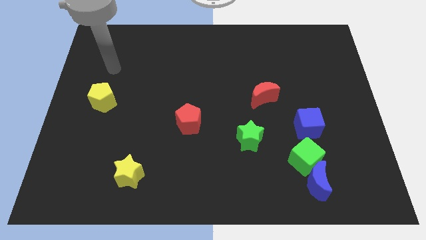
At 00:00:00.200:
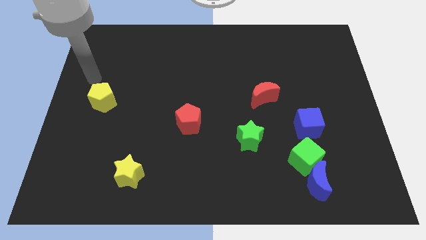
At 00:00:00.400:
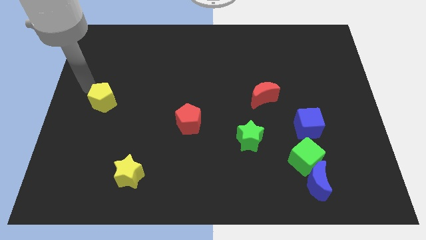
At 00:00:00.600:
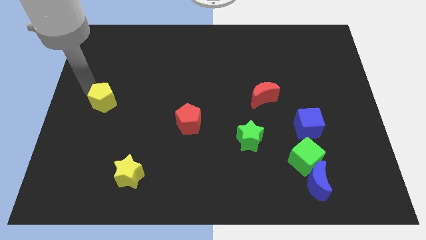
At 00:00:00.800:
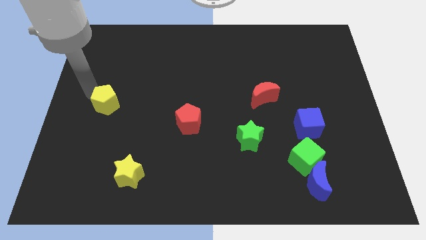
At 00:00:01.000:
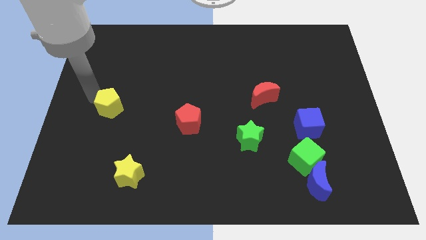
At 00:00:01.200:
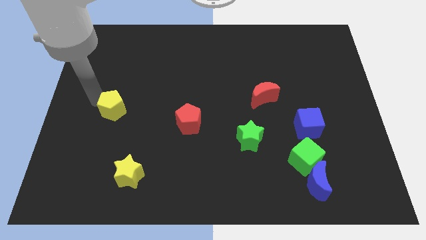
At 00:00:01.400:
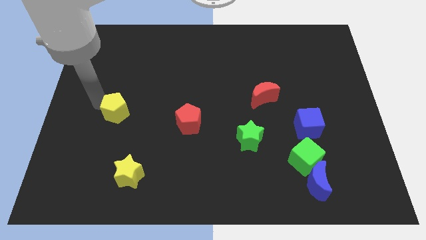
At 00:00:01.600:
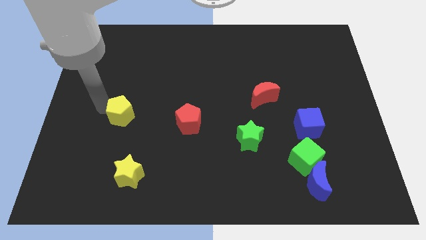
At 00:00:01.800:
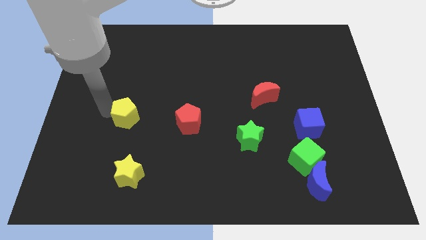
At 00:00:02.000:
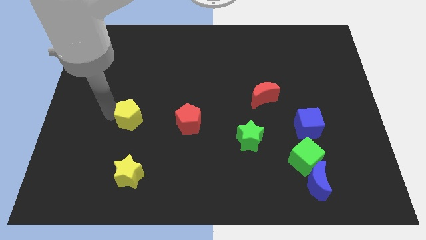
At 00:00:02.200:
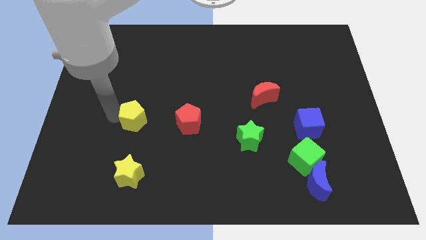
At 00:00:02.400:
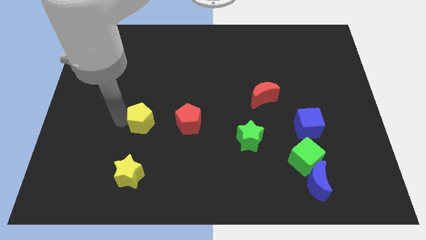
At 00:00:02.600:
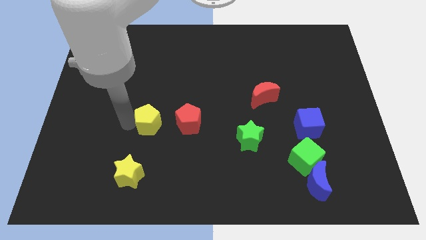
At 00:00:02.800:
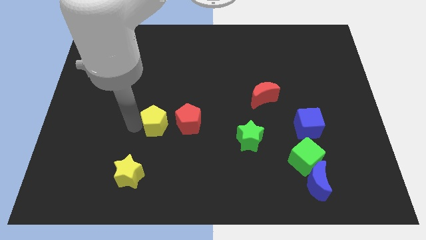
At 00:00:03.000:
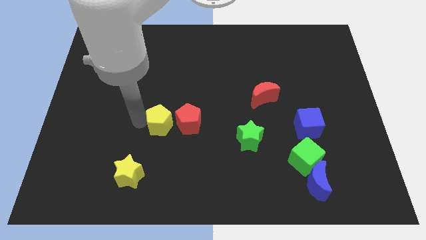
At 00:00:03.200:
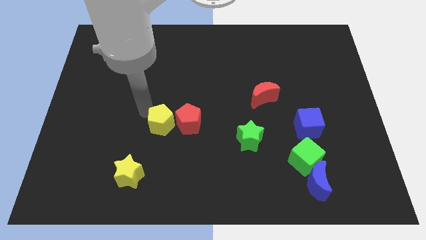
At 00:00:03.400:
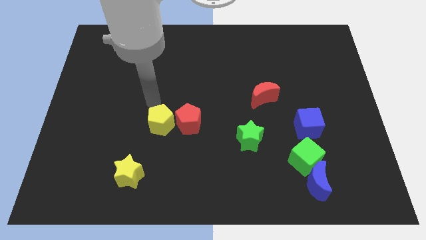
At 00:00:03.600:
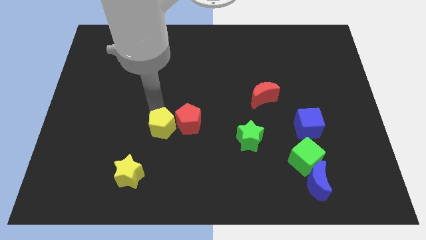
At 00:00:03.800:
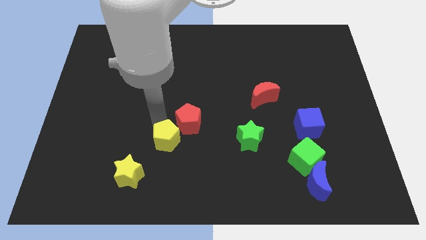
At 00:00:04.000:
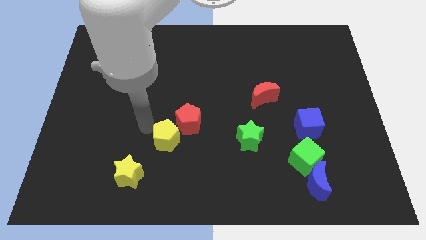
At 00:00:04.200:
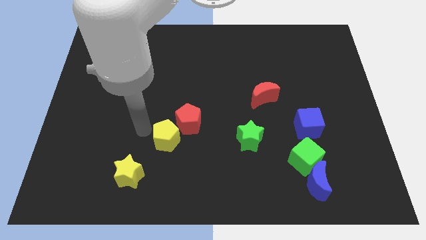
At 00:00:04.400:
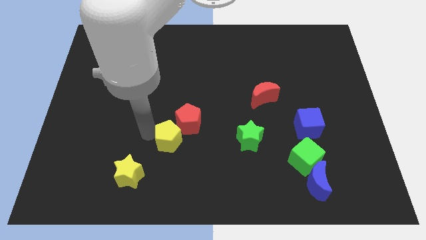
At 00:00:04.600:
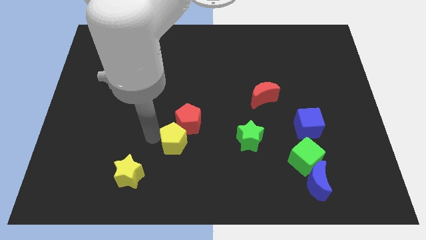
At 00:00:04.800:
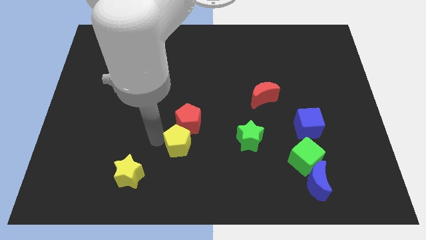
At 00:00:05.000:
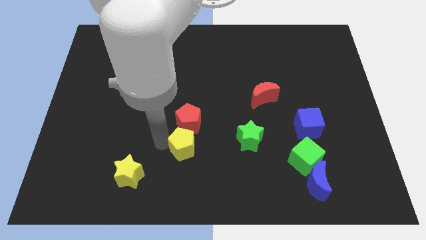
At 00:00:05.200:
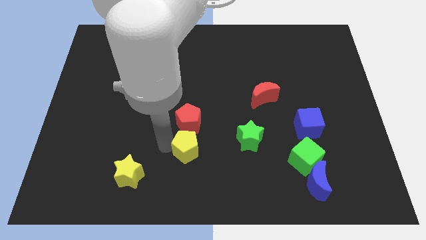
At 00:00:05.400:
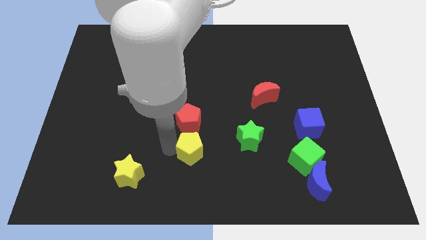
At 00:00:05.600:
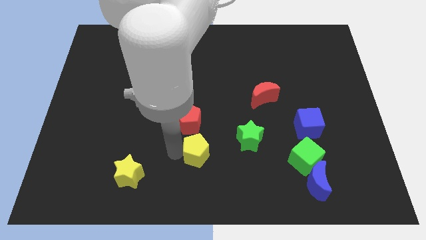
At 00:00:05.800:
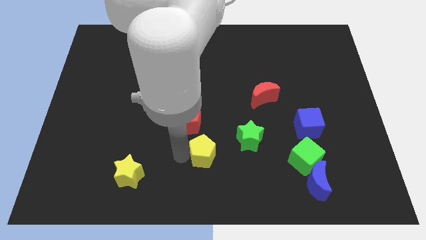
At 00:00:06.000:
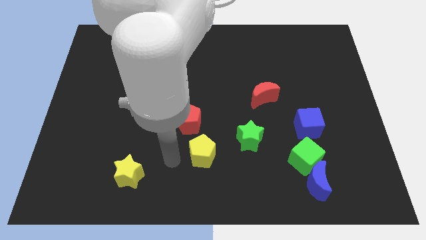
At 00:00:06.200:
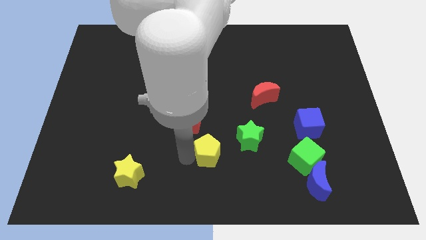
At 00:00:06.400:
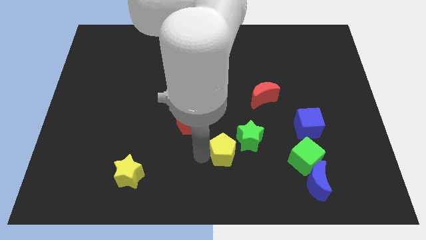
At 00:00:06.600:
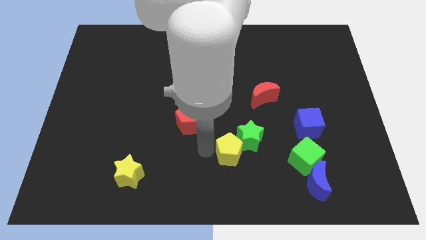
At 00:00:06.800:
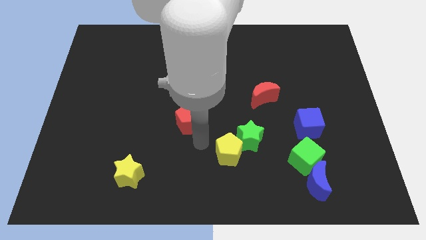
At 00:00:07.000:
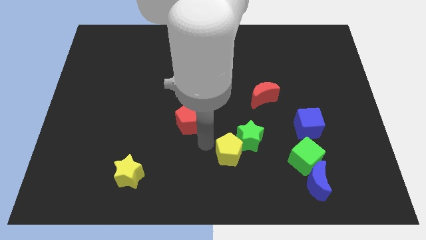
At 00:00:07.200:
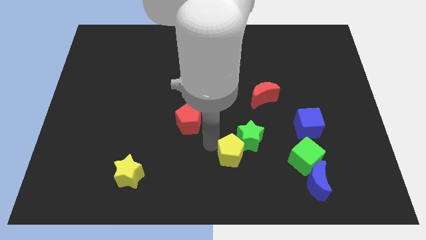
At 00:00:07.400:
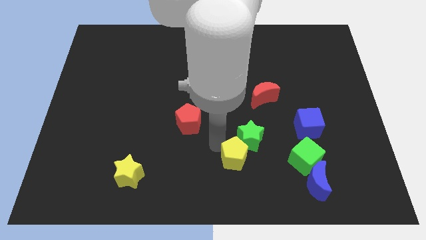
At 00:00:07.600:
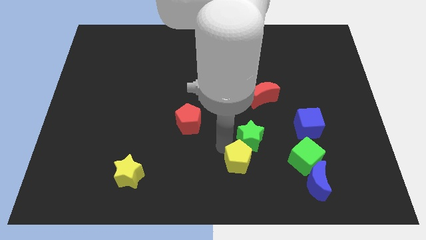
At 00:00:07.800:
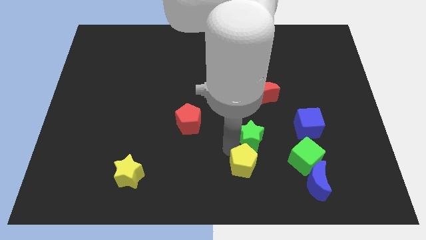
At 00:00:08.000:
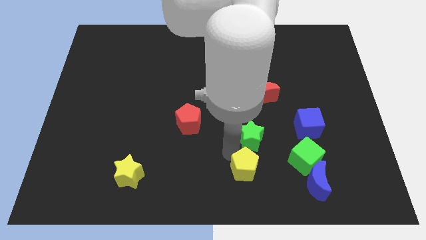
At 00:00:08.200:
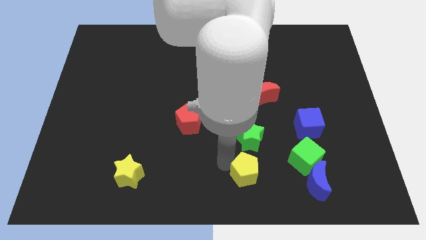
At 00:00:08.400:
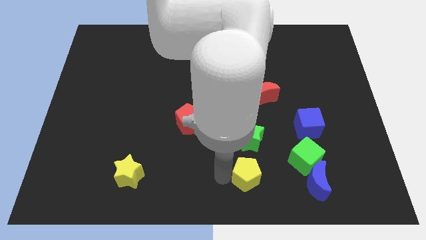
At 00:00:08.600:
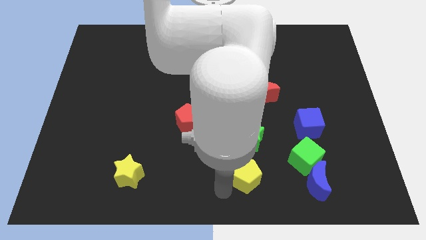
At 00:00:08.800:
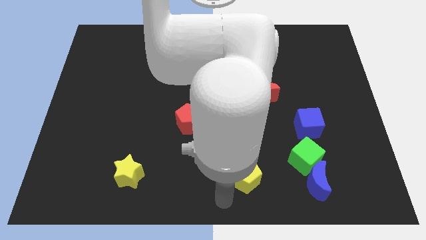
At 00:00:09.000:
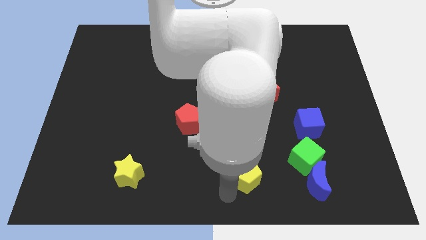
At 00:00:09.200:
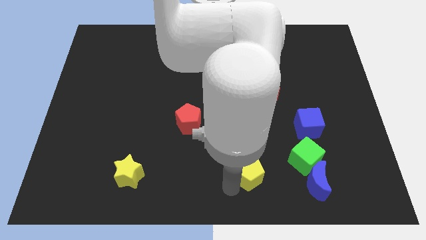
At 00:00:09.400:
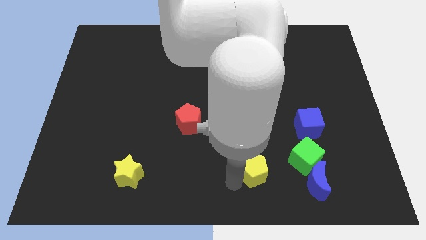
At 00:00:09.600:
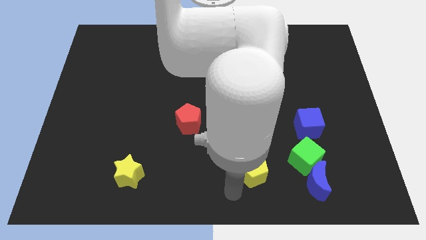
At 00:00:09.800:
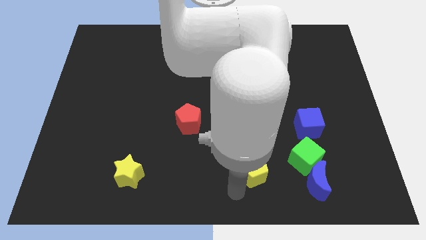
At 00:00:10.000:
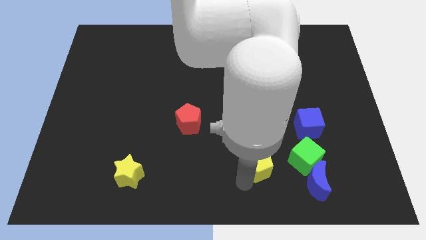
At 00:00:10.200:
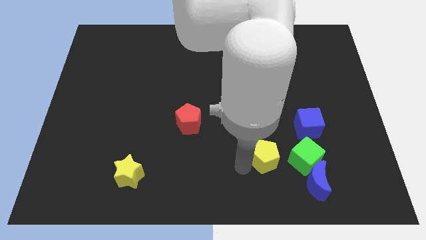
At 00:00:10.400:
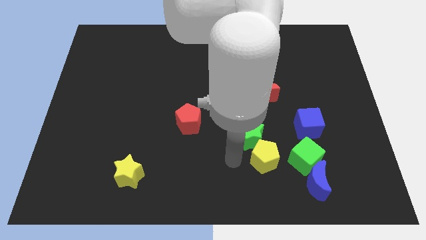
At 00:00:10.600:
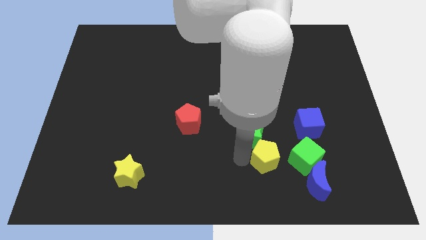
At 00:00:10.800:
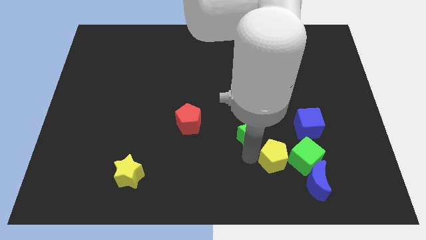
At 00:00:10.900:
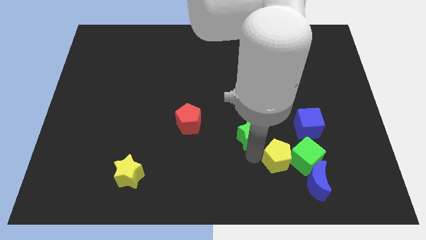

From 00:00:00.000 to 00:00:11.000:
slide the yellow pentagon towards the green cube
